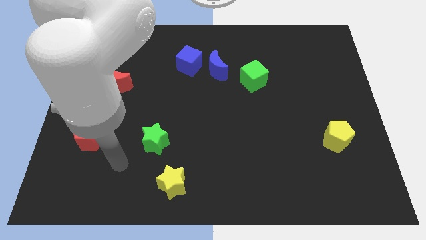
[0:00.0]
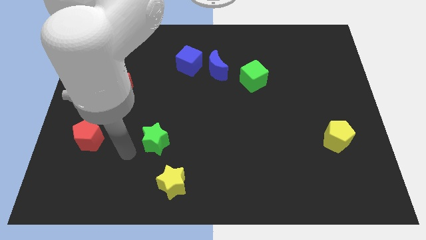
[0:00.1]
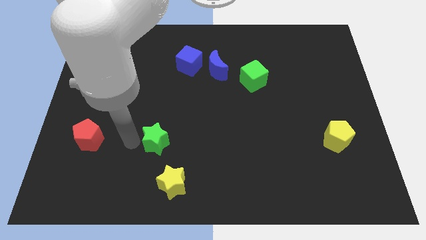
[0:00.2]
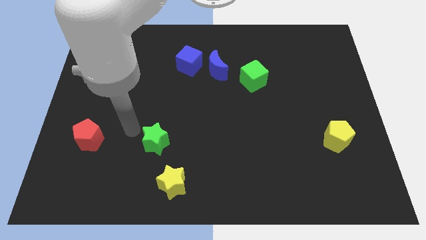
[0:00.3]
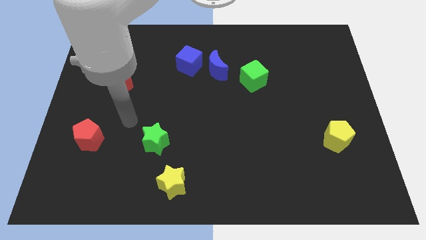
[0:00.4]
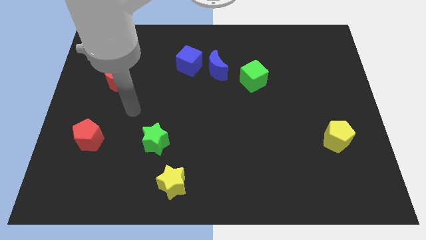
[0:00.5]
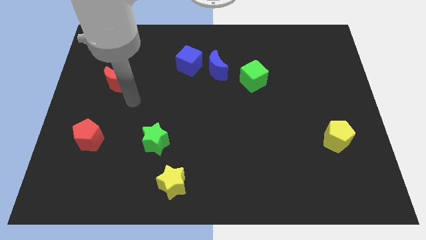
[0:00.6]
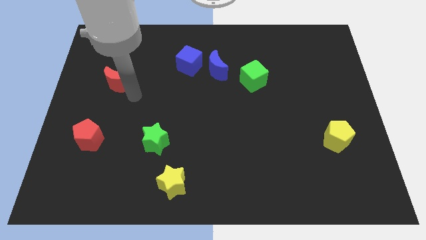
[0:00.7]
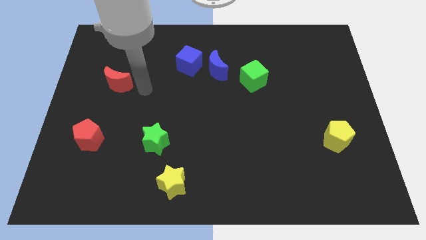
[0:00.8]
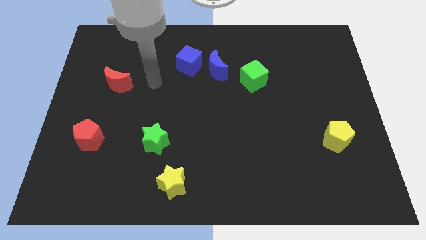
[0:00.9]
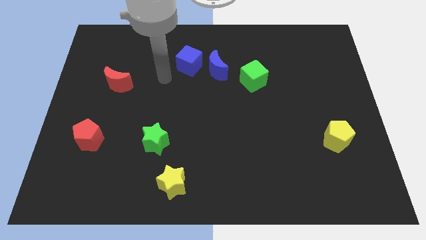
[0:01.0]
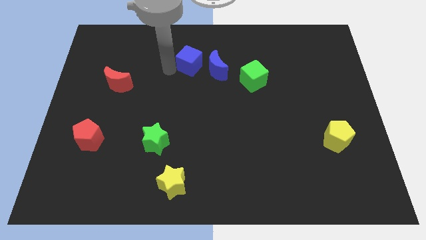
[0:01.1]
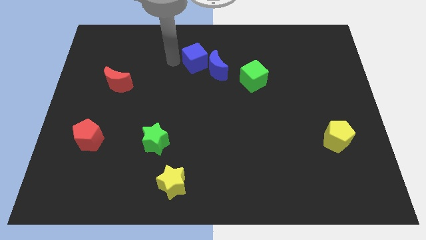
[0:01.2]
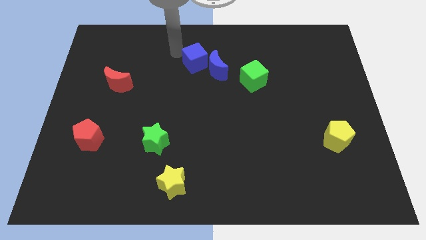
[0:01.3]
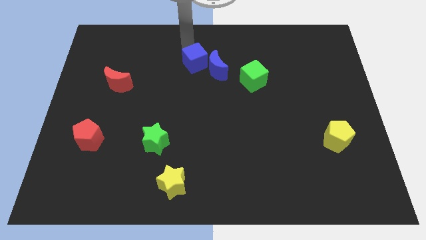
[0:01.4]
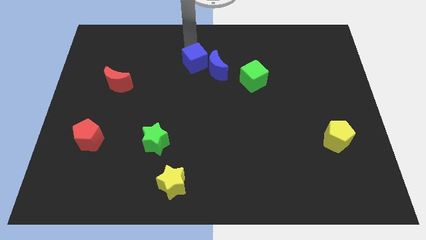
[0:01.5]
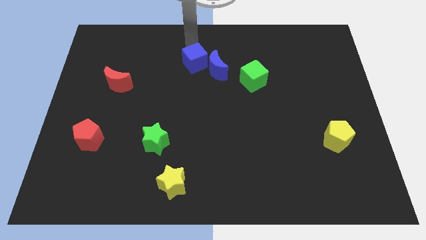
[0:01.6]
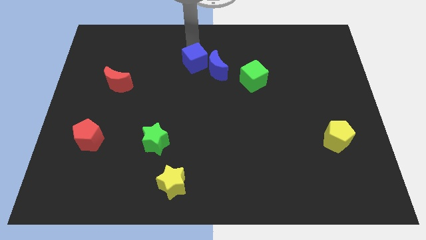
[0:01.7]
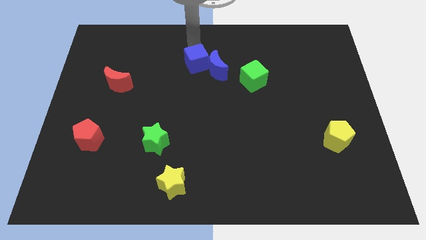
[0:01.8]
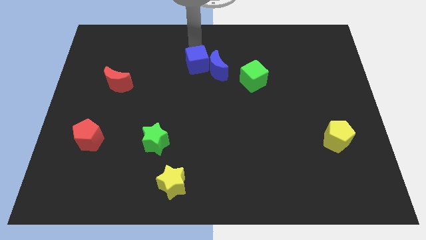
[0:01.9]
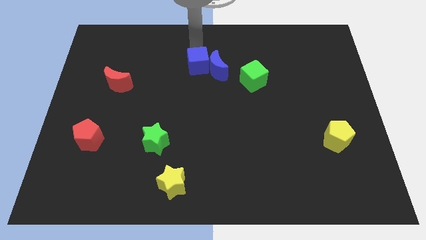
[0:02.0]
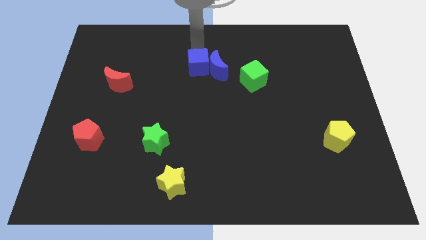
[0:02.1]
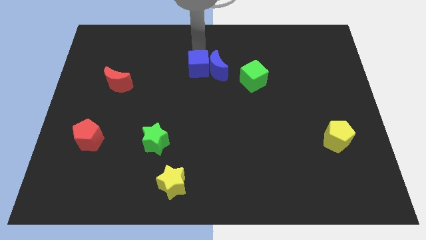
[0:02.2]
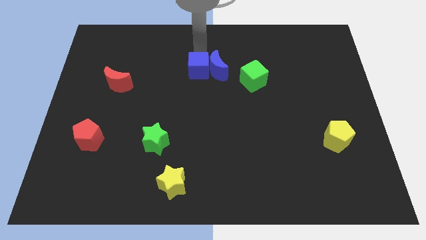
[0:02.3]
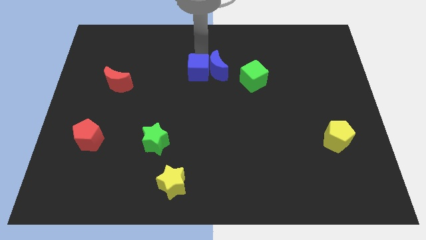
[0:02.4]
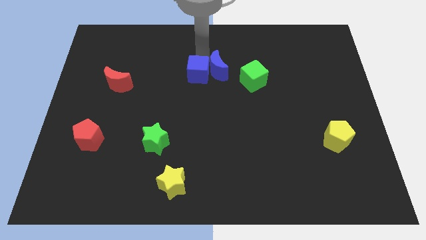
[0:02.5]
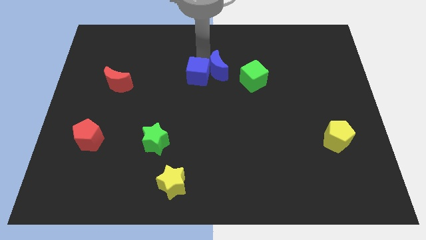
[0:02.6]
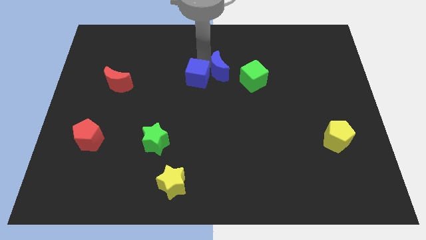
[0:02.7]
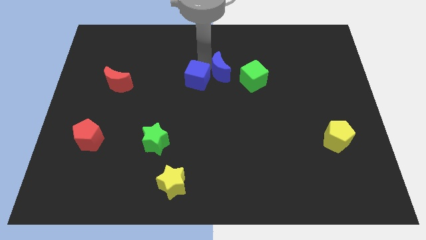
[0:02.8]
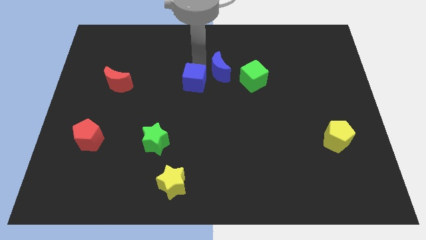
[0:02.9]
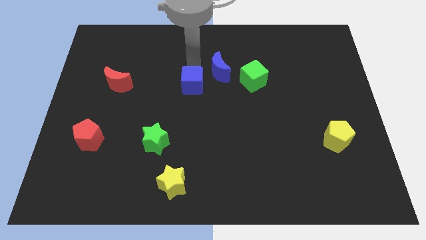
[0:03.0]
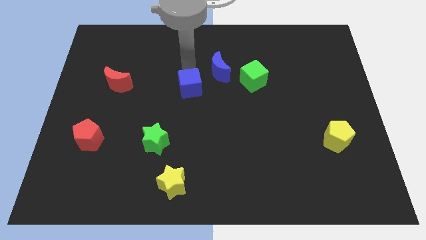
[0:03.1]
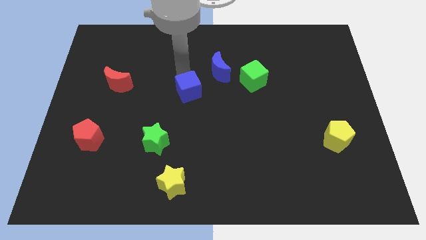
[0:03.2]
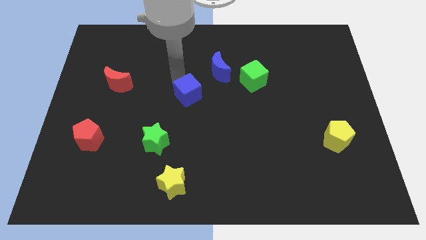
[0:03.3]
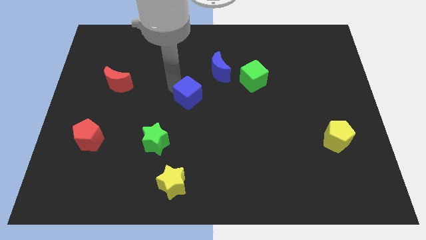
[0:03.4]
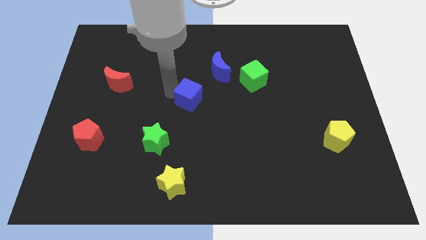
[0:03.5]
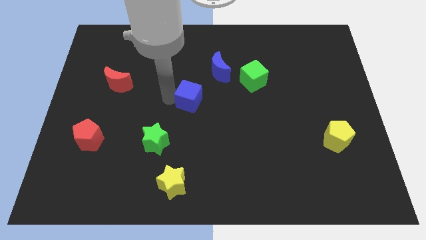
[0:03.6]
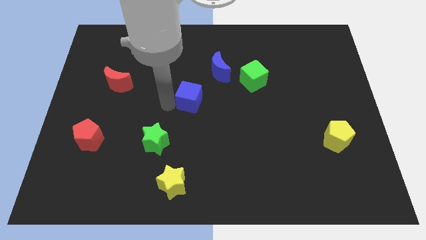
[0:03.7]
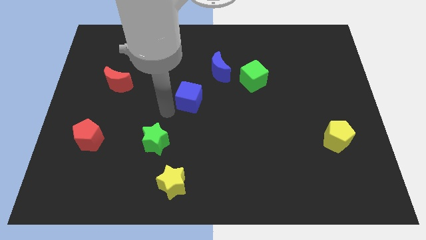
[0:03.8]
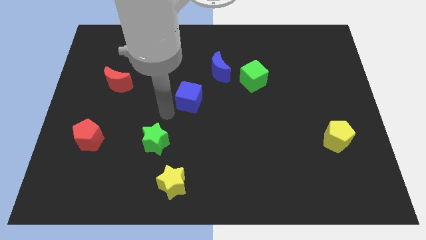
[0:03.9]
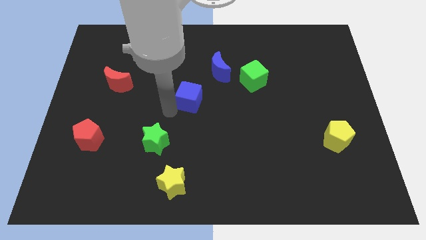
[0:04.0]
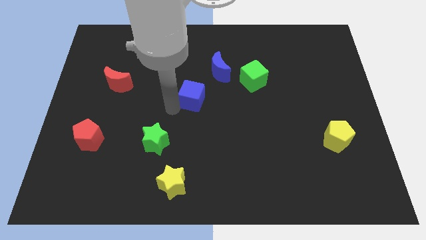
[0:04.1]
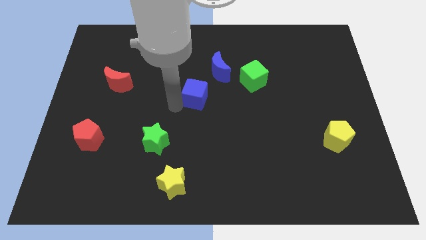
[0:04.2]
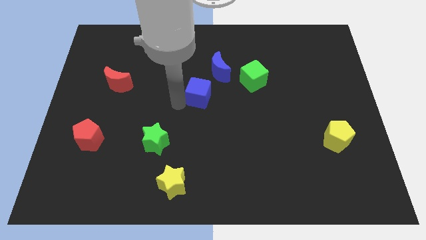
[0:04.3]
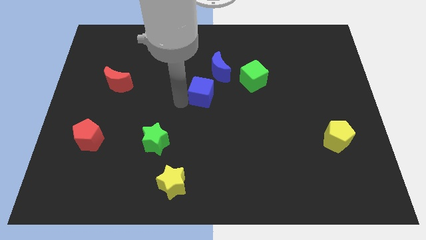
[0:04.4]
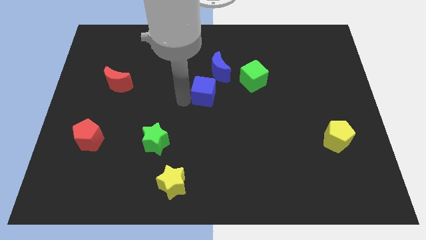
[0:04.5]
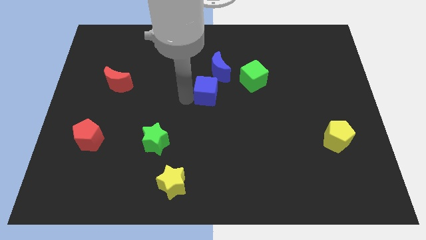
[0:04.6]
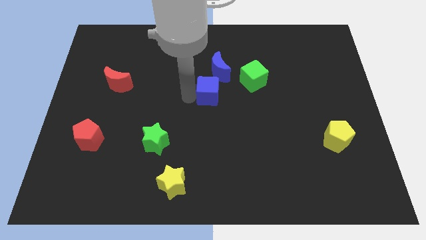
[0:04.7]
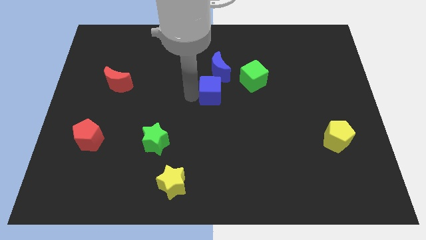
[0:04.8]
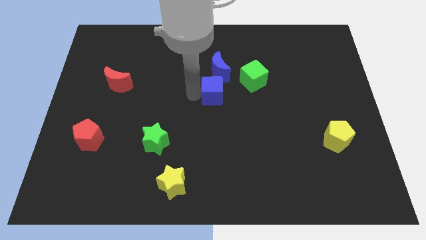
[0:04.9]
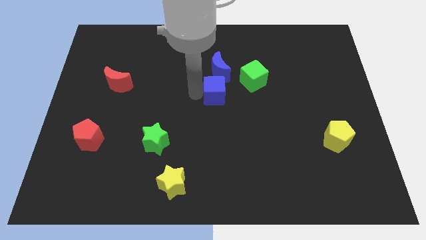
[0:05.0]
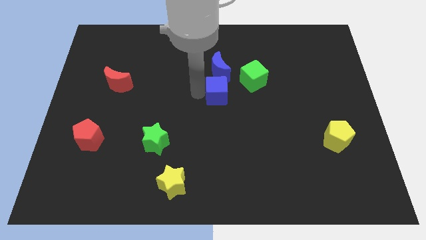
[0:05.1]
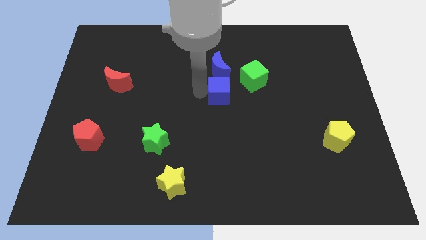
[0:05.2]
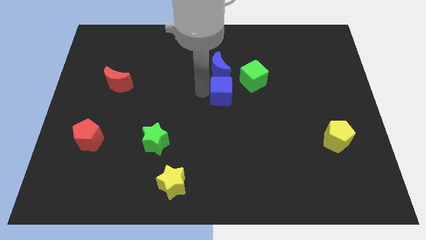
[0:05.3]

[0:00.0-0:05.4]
slide the blue cube diagonally down and to the right of the blue moon

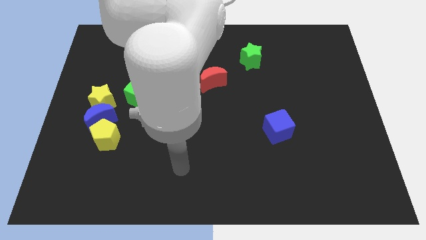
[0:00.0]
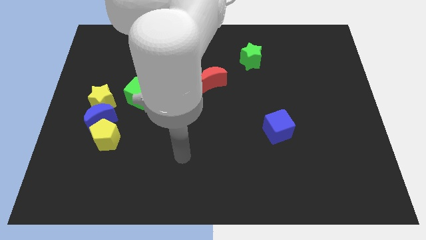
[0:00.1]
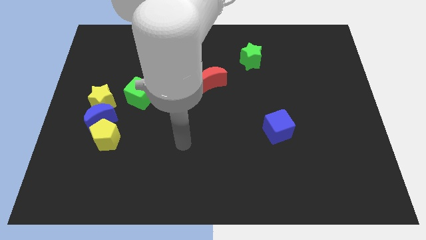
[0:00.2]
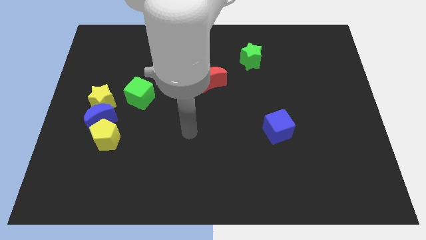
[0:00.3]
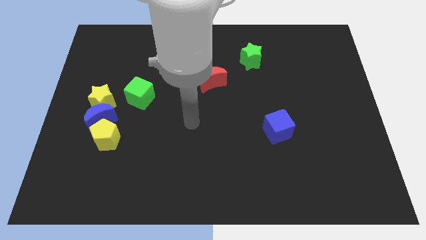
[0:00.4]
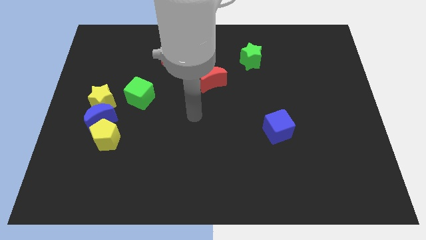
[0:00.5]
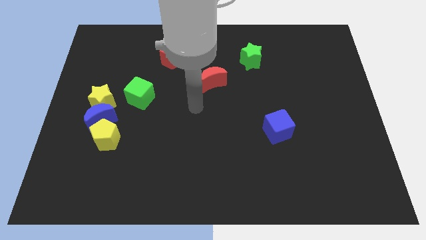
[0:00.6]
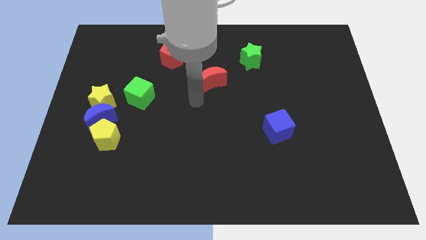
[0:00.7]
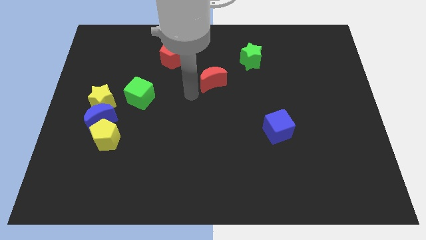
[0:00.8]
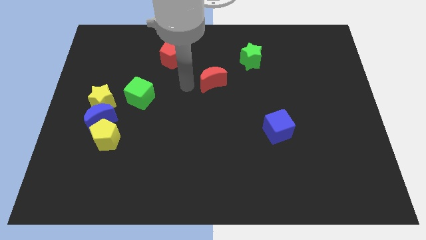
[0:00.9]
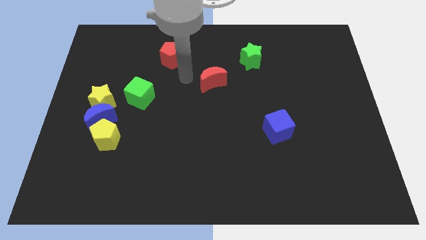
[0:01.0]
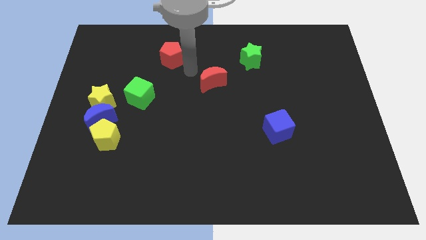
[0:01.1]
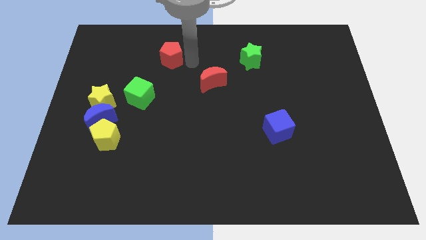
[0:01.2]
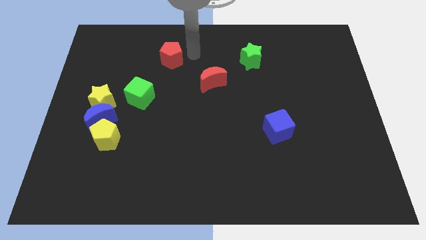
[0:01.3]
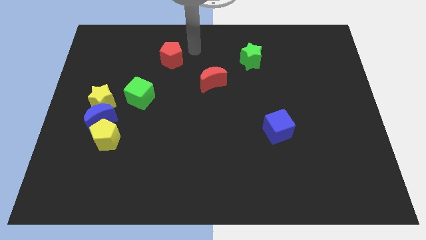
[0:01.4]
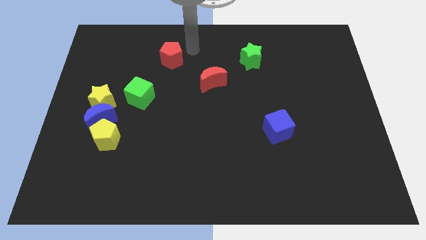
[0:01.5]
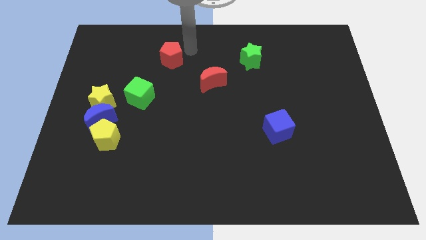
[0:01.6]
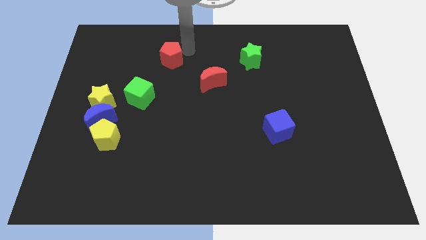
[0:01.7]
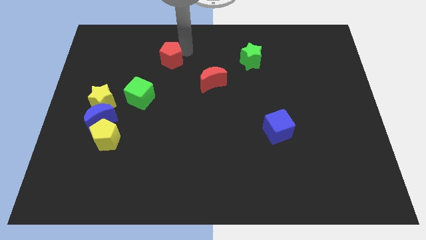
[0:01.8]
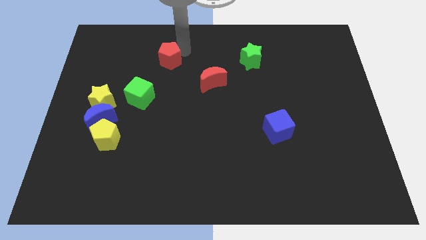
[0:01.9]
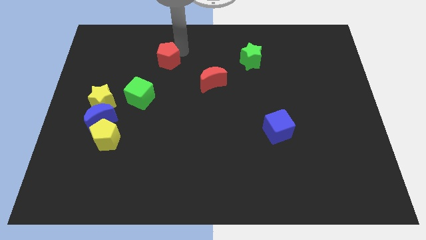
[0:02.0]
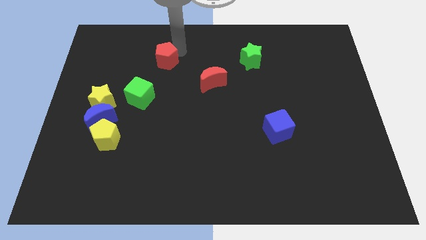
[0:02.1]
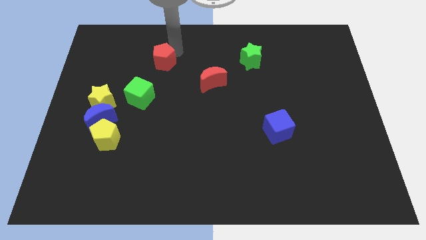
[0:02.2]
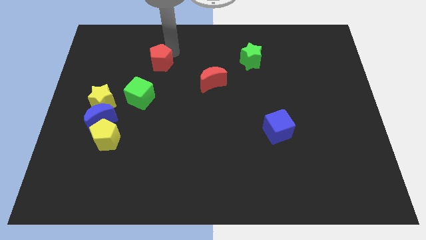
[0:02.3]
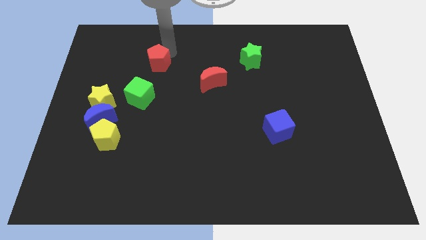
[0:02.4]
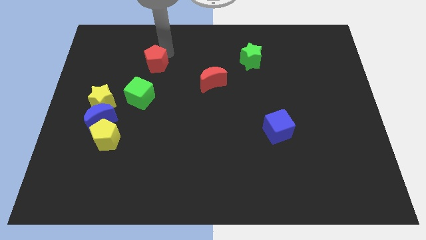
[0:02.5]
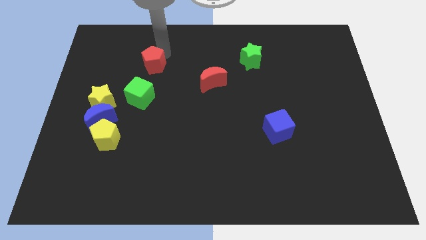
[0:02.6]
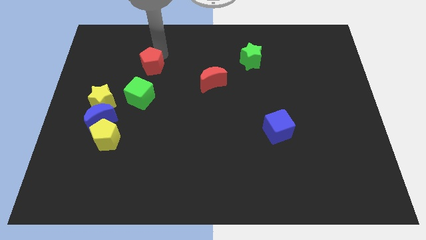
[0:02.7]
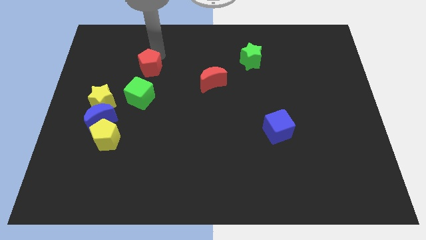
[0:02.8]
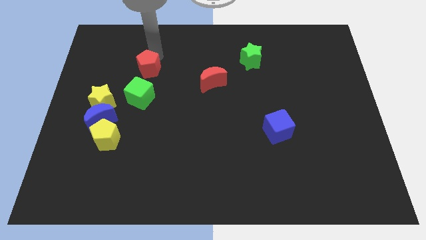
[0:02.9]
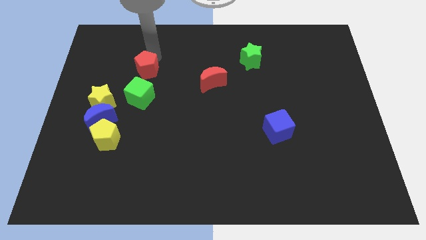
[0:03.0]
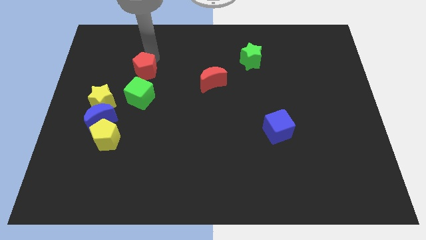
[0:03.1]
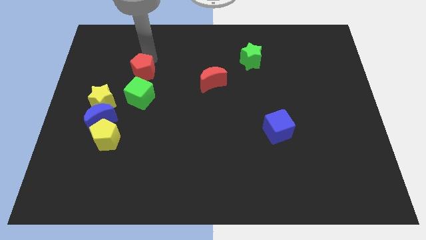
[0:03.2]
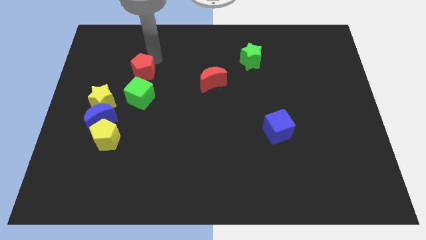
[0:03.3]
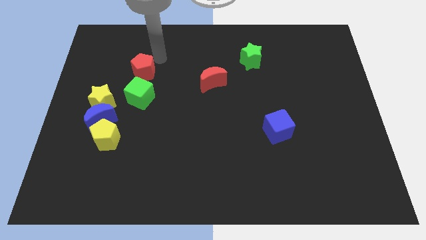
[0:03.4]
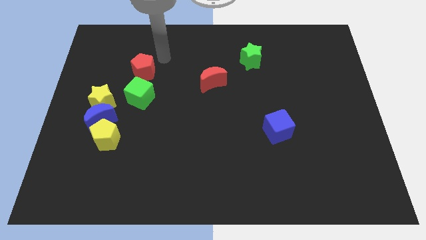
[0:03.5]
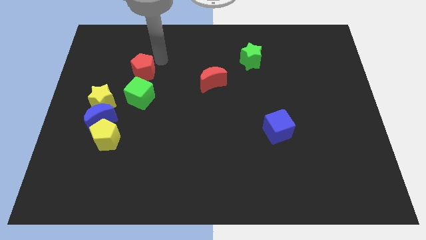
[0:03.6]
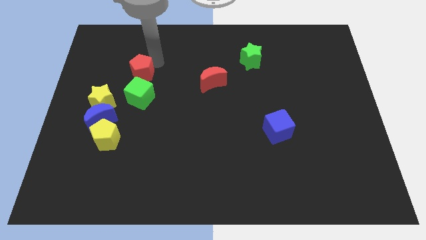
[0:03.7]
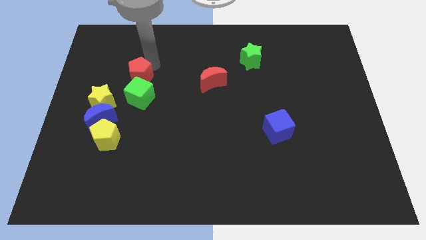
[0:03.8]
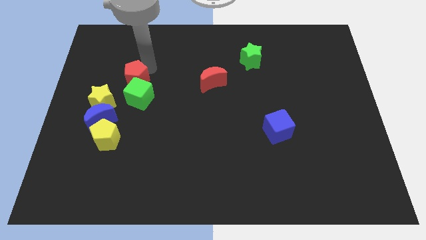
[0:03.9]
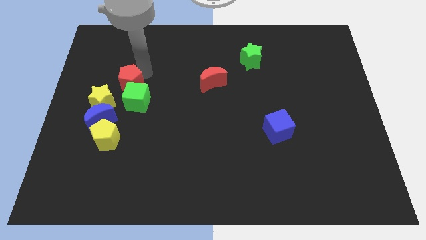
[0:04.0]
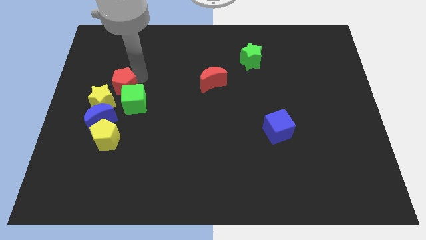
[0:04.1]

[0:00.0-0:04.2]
move the red pentagon to the top of the blue moon
